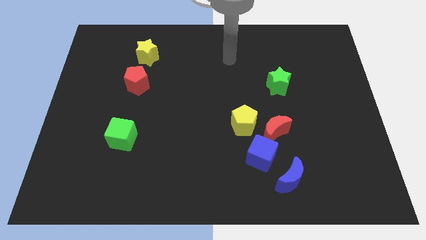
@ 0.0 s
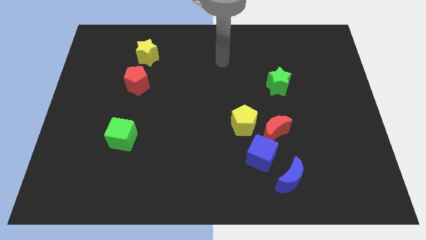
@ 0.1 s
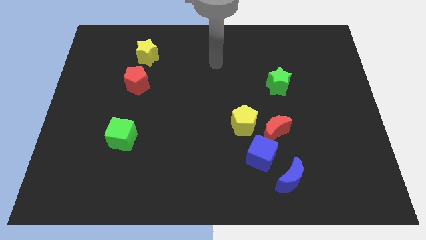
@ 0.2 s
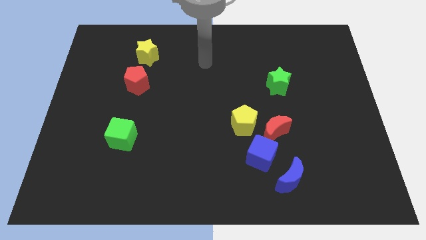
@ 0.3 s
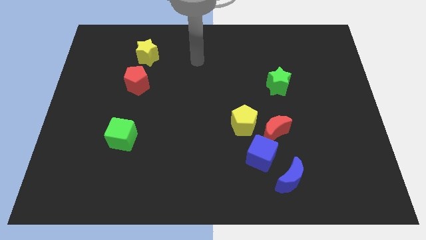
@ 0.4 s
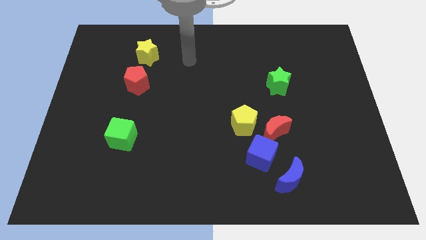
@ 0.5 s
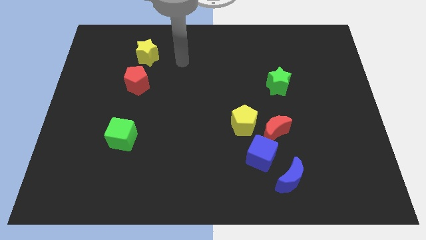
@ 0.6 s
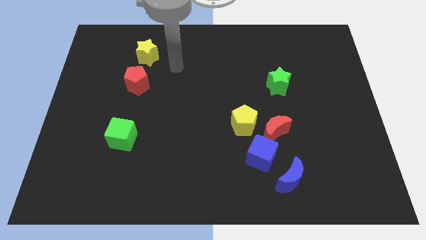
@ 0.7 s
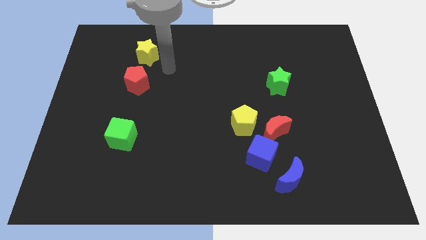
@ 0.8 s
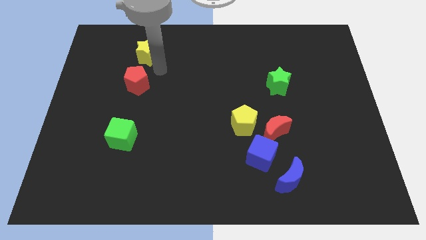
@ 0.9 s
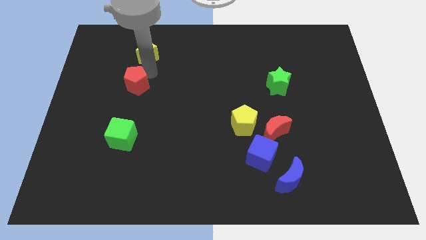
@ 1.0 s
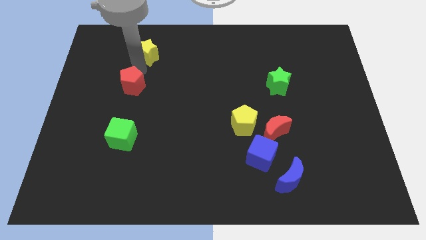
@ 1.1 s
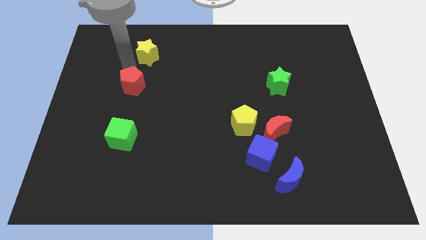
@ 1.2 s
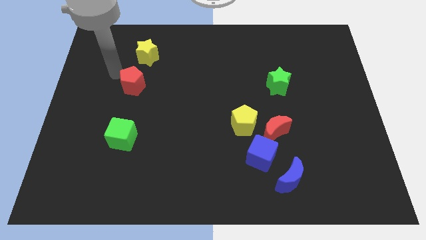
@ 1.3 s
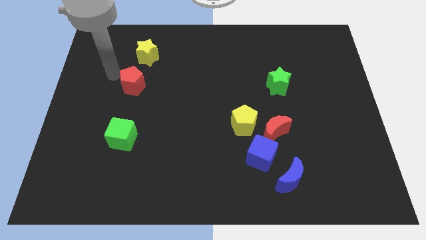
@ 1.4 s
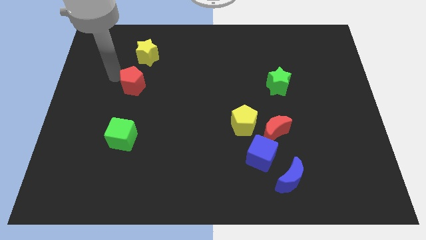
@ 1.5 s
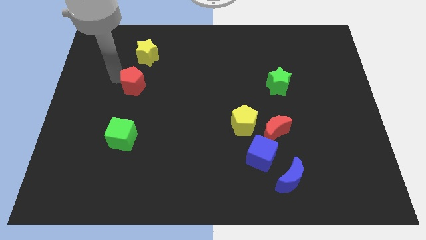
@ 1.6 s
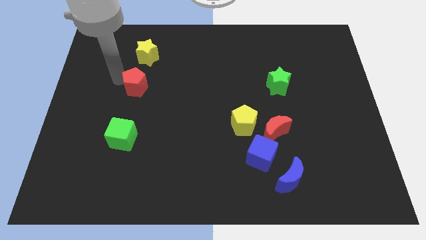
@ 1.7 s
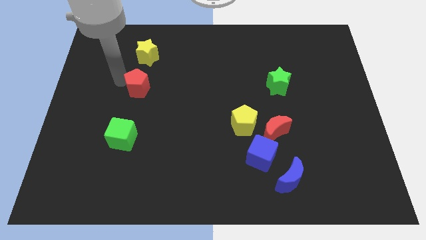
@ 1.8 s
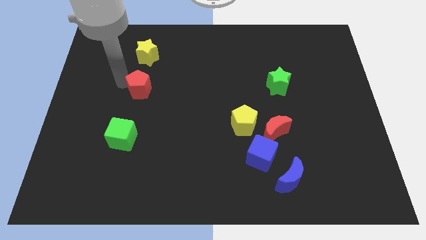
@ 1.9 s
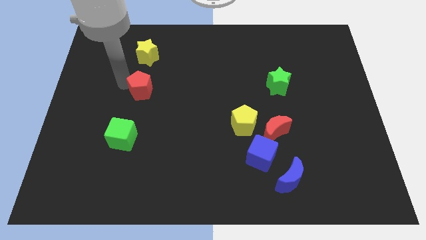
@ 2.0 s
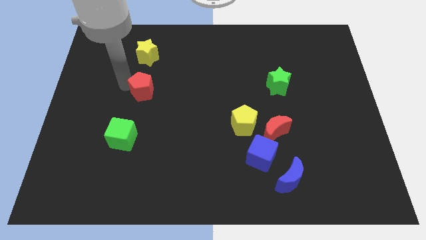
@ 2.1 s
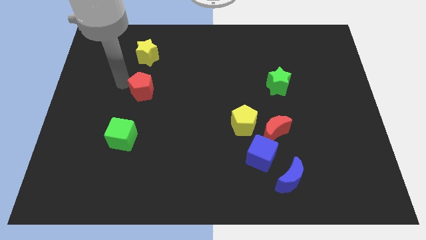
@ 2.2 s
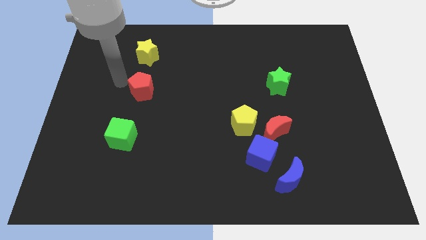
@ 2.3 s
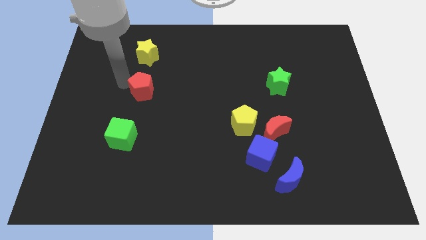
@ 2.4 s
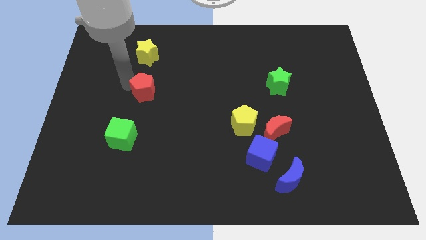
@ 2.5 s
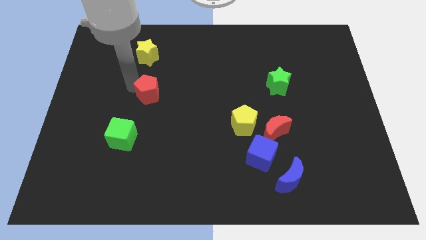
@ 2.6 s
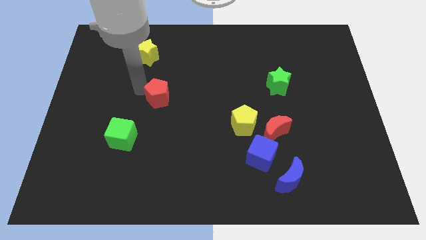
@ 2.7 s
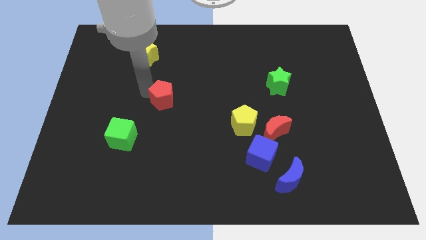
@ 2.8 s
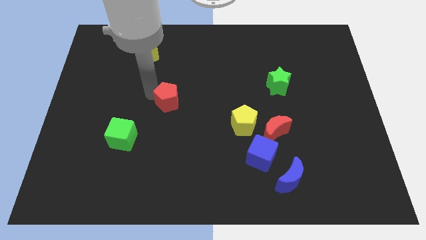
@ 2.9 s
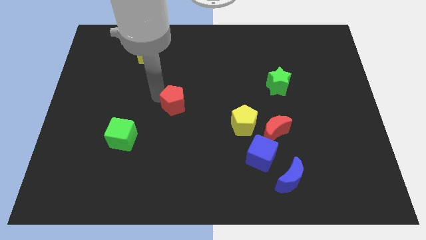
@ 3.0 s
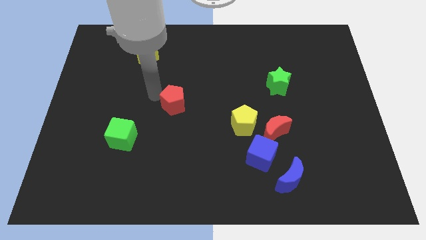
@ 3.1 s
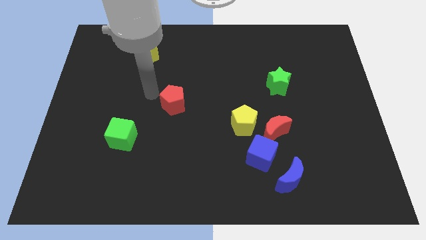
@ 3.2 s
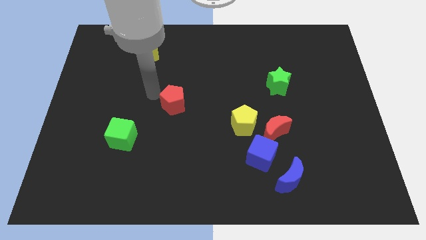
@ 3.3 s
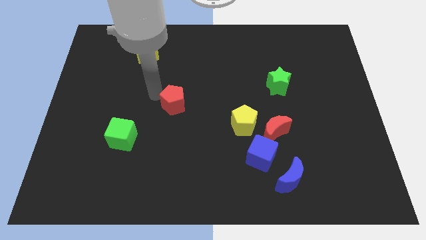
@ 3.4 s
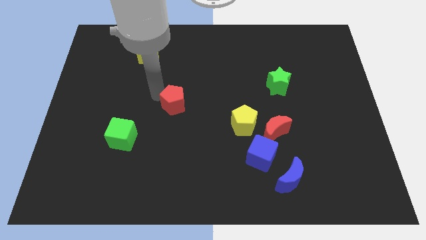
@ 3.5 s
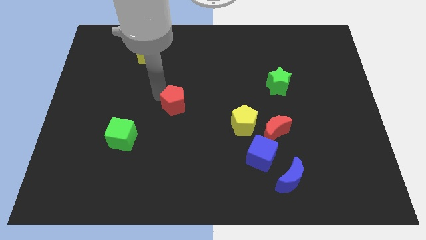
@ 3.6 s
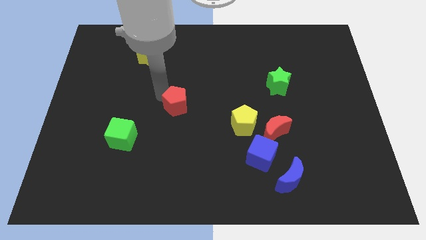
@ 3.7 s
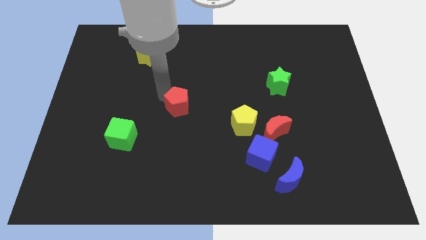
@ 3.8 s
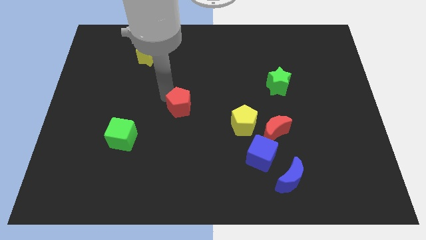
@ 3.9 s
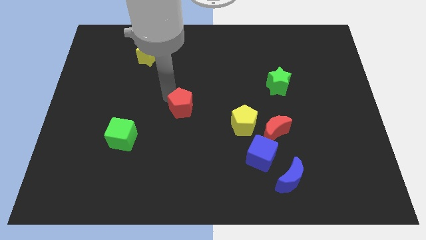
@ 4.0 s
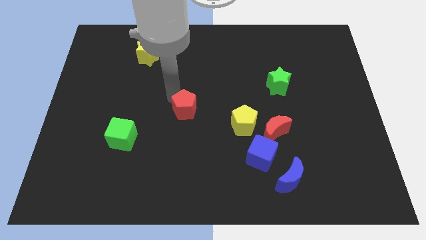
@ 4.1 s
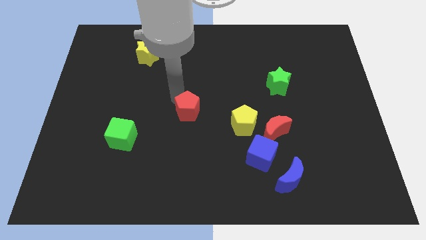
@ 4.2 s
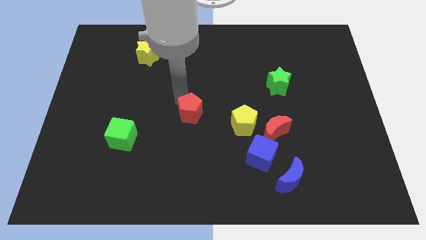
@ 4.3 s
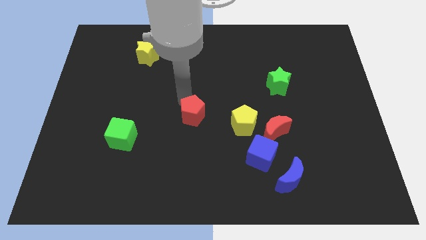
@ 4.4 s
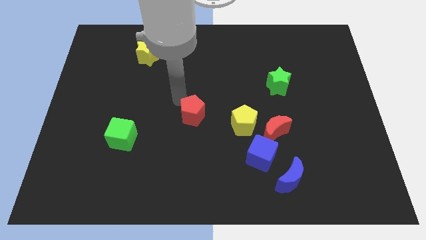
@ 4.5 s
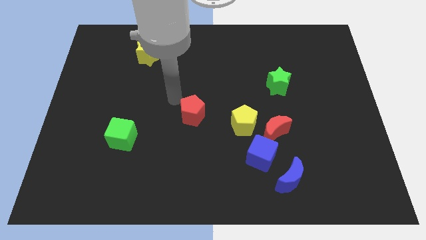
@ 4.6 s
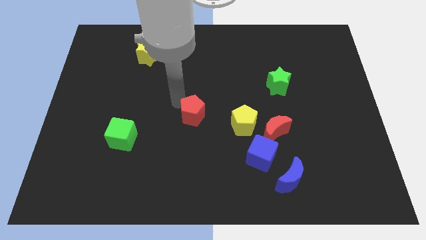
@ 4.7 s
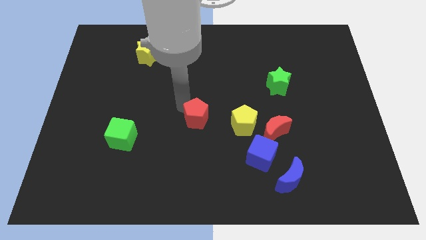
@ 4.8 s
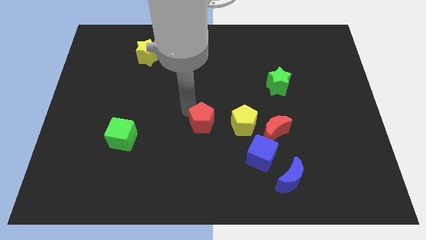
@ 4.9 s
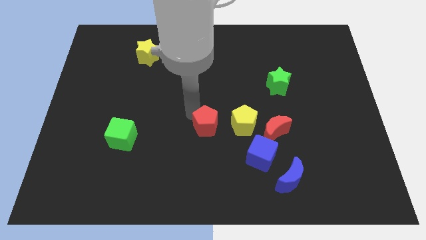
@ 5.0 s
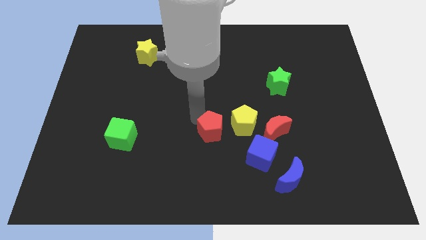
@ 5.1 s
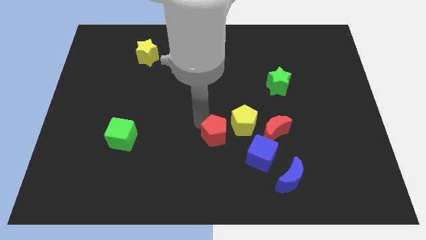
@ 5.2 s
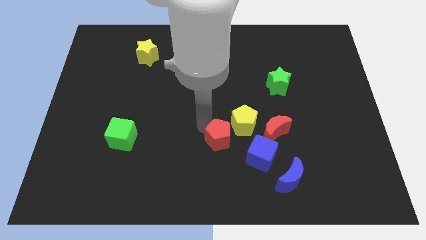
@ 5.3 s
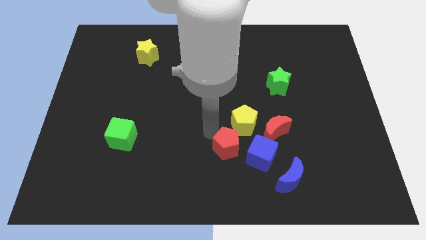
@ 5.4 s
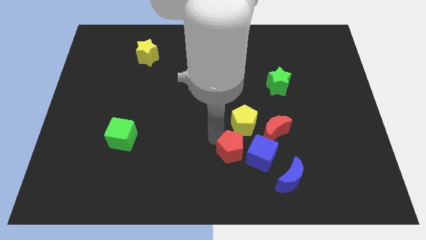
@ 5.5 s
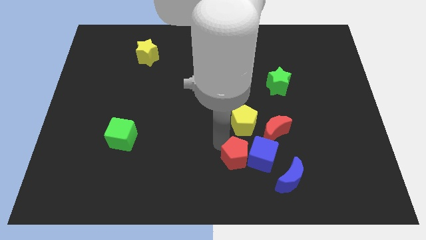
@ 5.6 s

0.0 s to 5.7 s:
push the red pentagon towards the blue cube

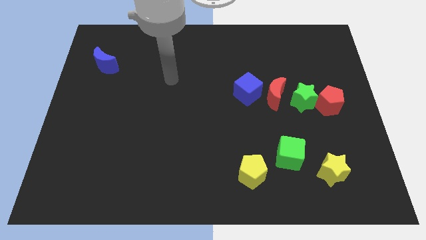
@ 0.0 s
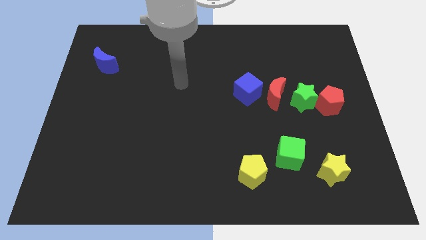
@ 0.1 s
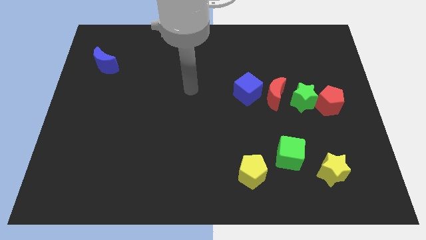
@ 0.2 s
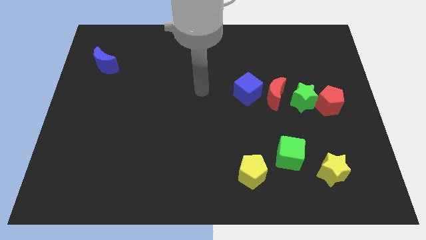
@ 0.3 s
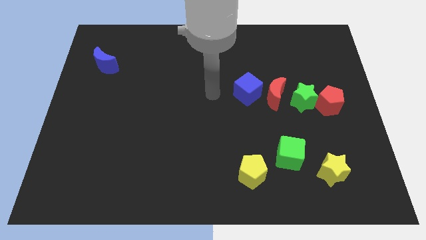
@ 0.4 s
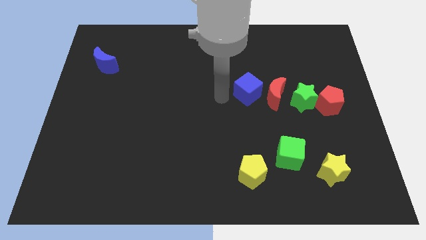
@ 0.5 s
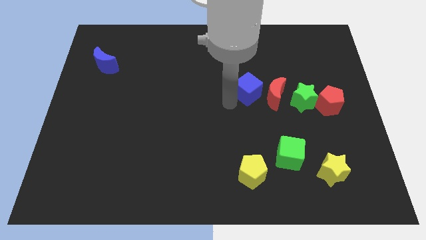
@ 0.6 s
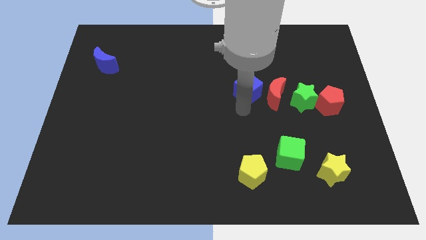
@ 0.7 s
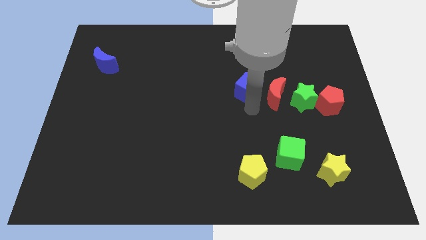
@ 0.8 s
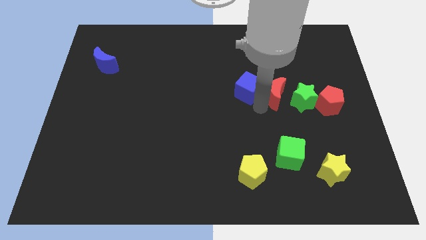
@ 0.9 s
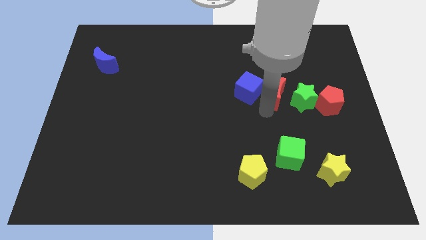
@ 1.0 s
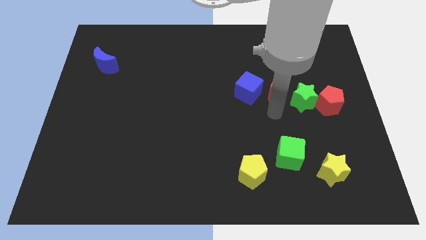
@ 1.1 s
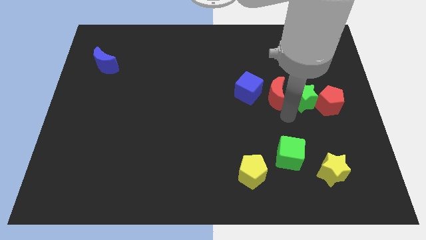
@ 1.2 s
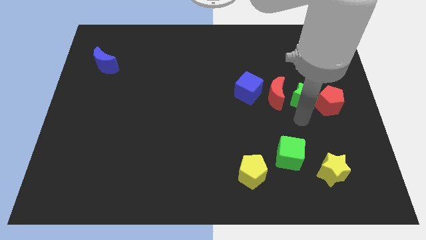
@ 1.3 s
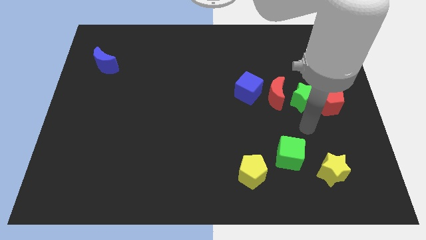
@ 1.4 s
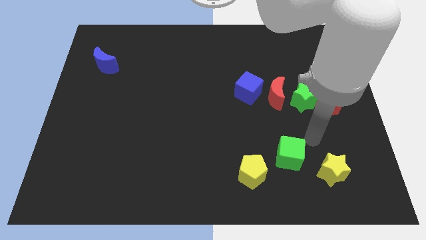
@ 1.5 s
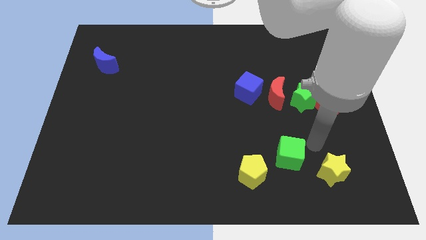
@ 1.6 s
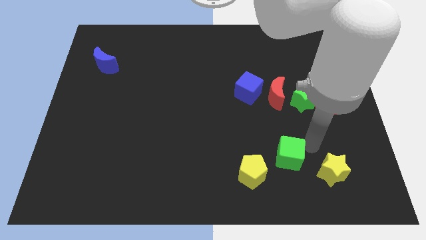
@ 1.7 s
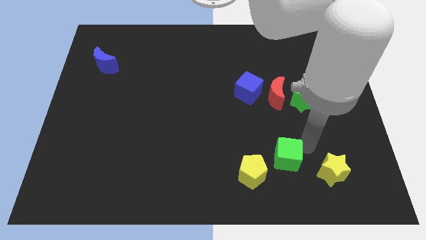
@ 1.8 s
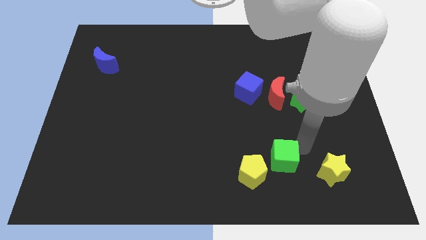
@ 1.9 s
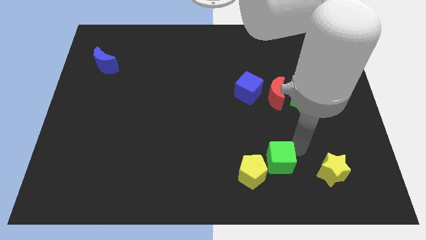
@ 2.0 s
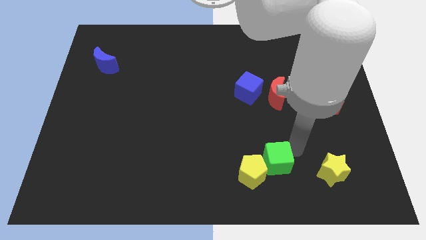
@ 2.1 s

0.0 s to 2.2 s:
put the green cube to the yellow pentagon
